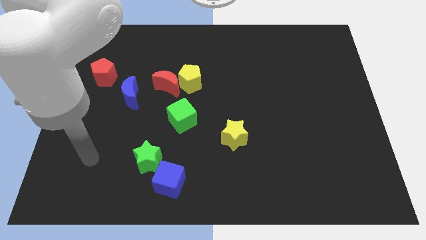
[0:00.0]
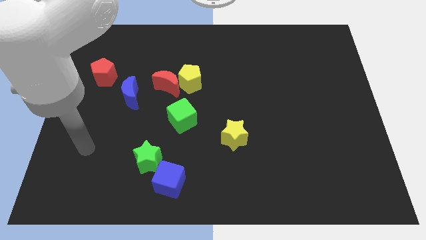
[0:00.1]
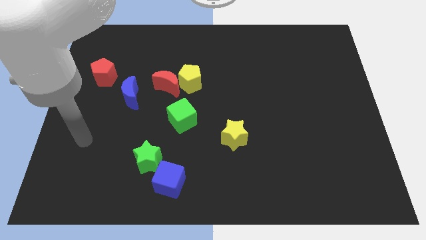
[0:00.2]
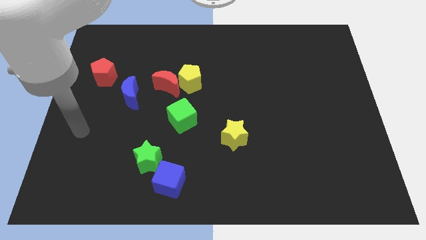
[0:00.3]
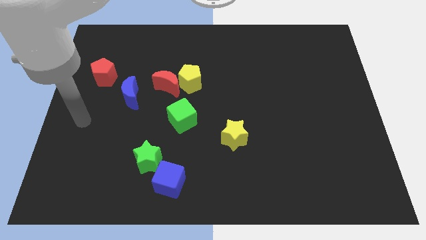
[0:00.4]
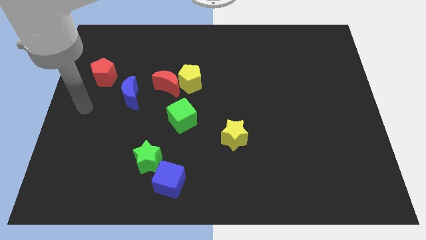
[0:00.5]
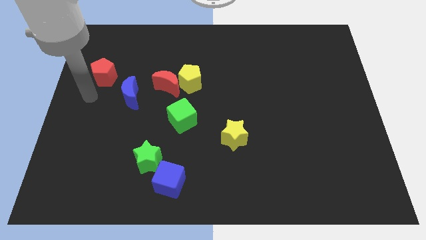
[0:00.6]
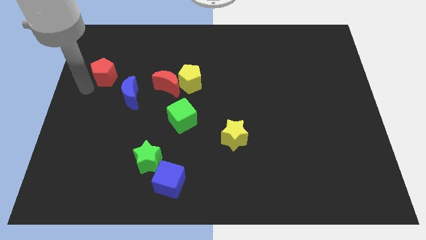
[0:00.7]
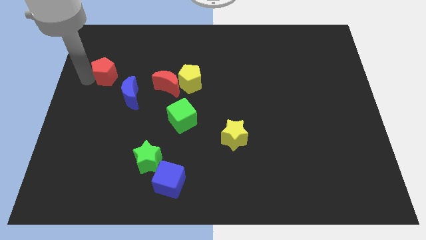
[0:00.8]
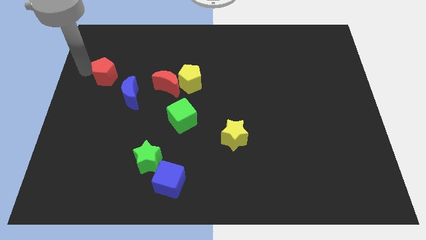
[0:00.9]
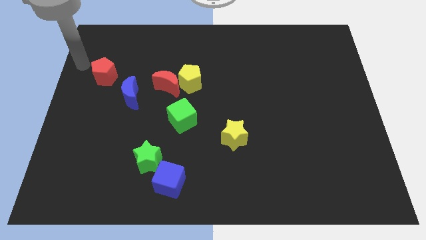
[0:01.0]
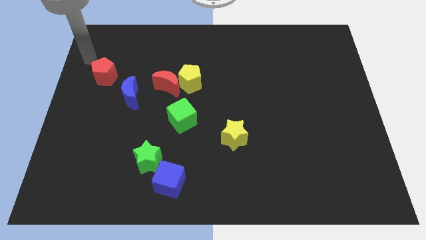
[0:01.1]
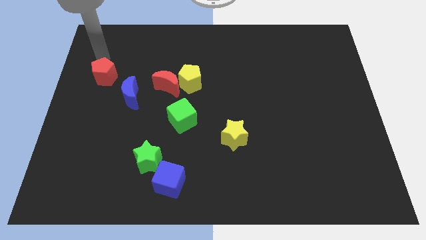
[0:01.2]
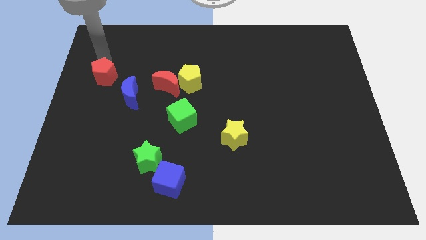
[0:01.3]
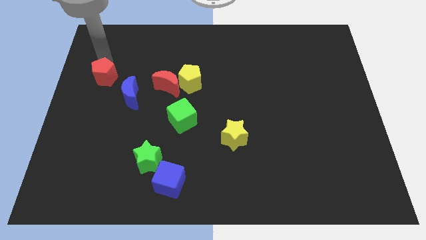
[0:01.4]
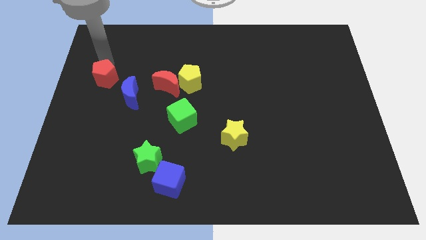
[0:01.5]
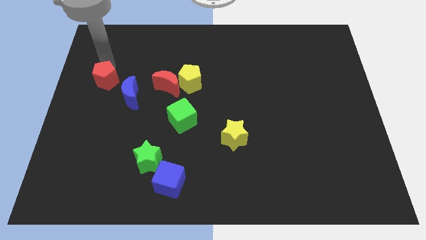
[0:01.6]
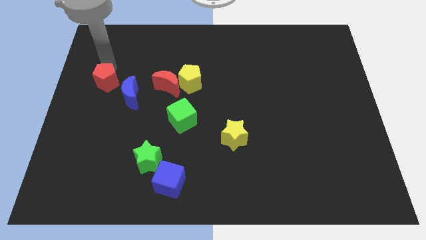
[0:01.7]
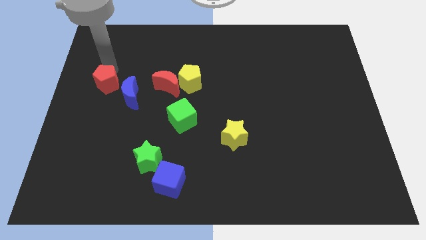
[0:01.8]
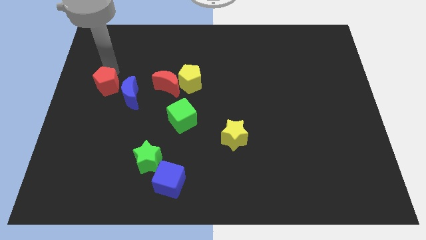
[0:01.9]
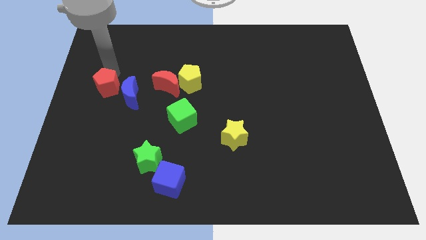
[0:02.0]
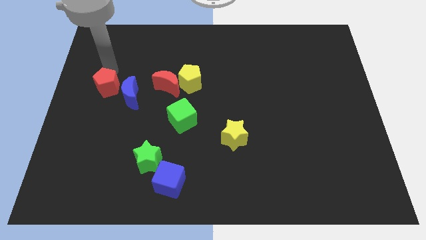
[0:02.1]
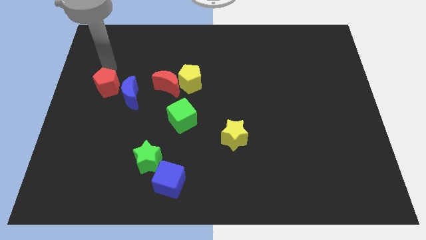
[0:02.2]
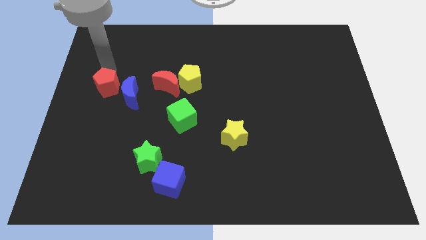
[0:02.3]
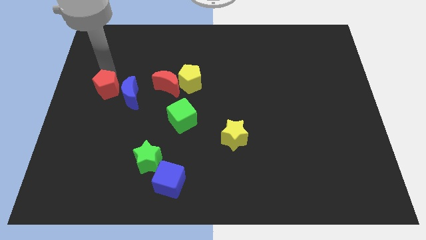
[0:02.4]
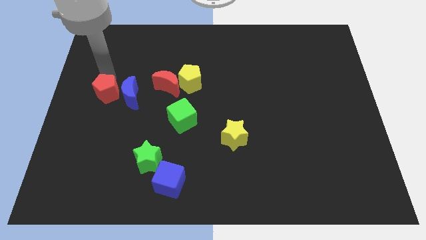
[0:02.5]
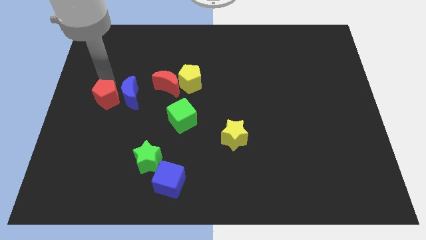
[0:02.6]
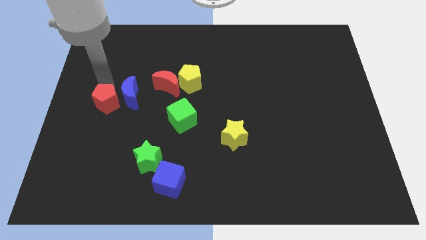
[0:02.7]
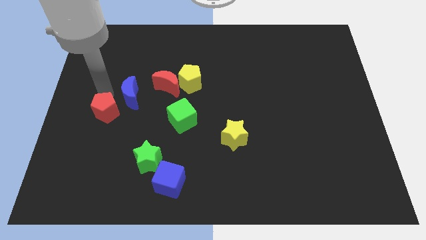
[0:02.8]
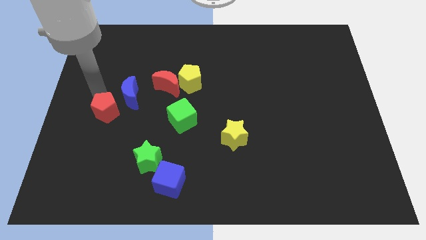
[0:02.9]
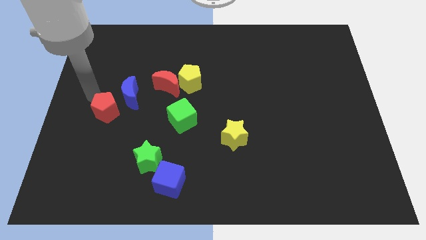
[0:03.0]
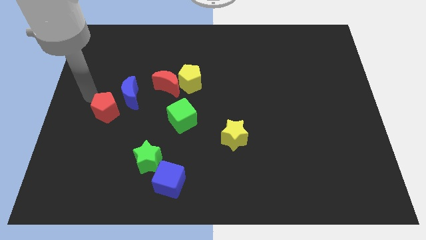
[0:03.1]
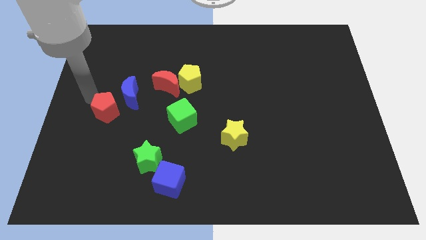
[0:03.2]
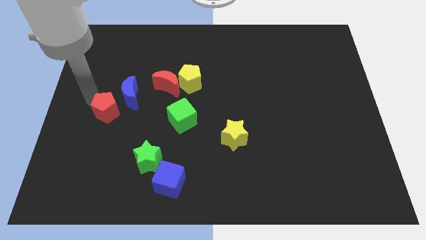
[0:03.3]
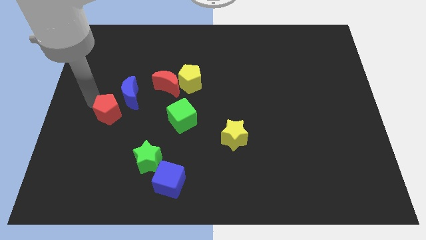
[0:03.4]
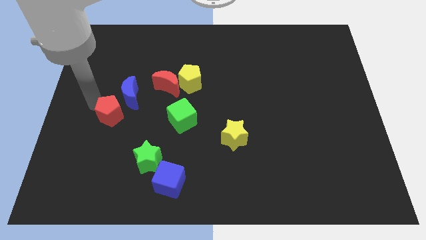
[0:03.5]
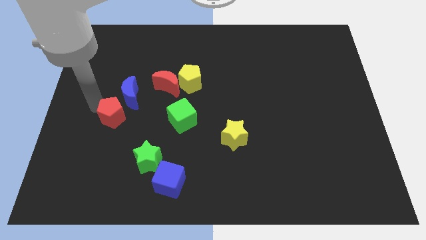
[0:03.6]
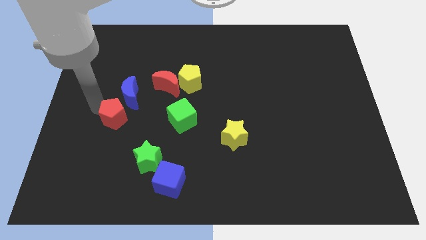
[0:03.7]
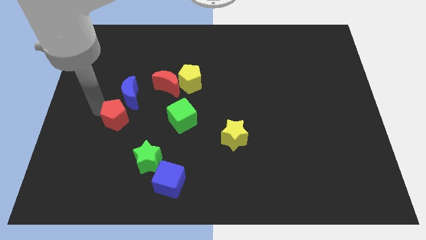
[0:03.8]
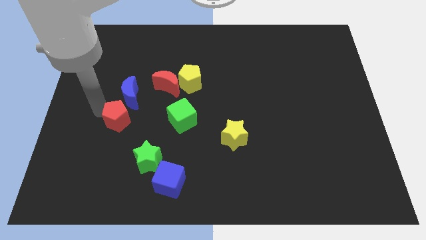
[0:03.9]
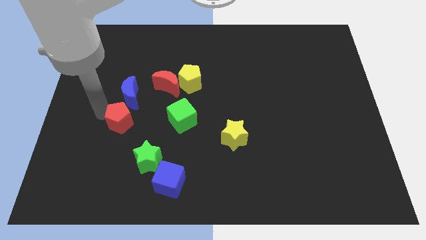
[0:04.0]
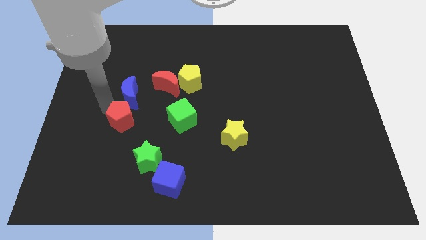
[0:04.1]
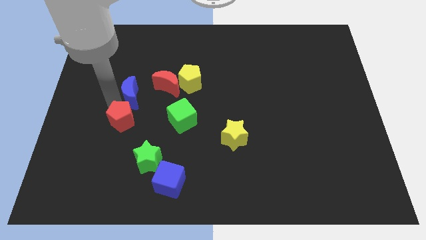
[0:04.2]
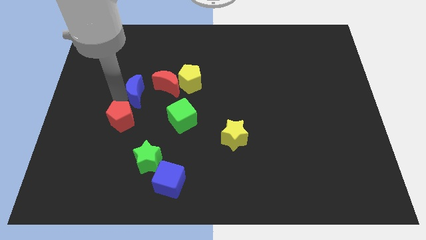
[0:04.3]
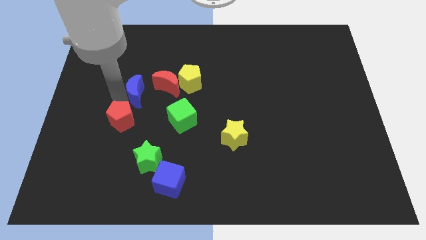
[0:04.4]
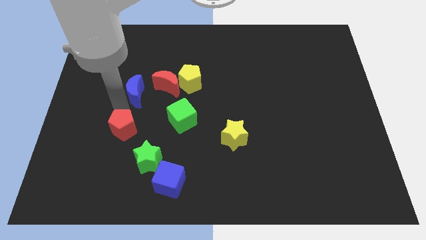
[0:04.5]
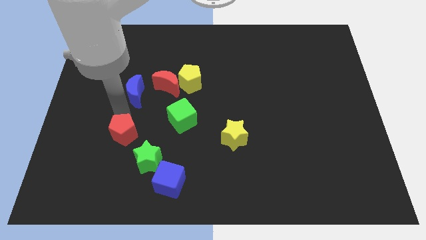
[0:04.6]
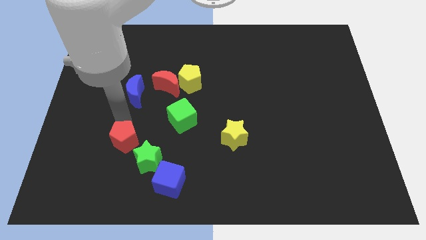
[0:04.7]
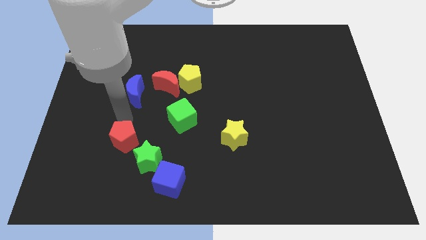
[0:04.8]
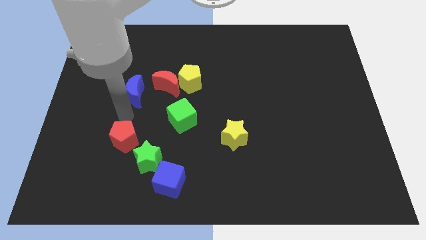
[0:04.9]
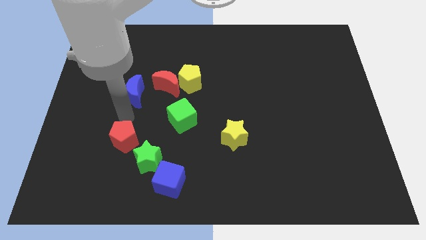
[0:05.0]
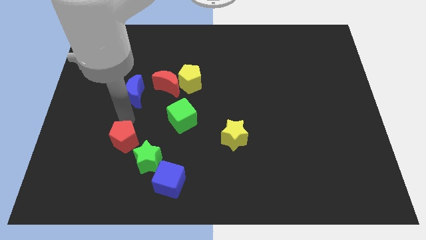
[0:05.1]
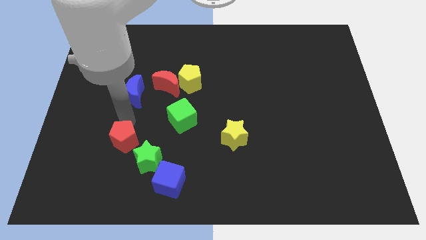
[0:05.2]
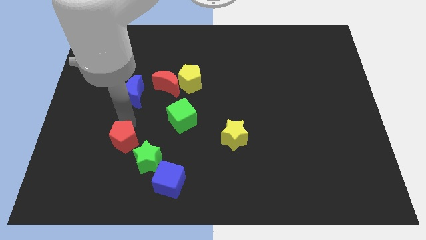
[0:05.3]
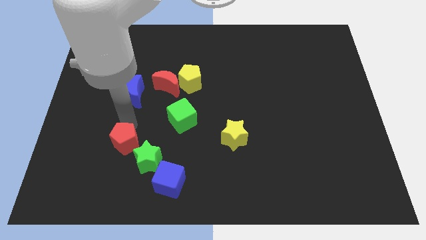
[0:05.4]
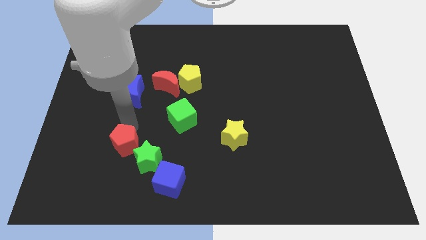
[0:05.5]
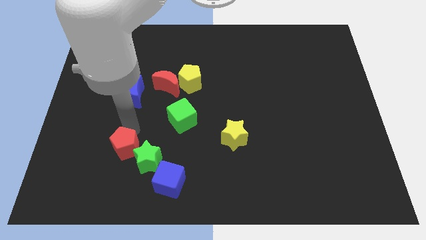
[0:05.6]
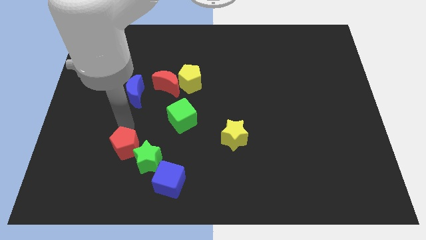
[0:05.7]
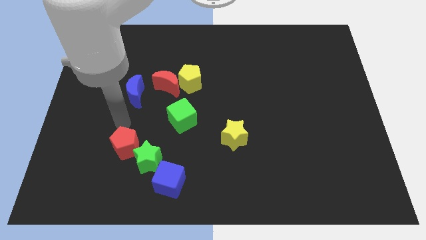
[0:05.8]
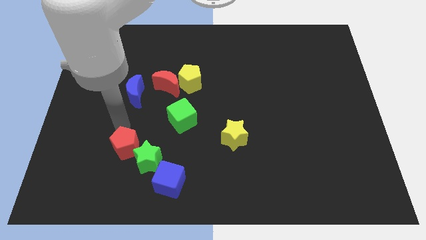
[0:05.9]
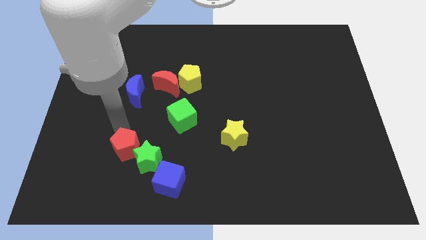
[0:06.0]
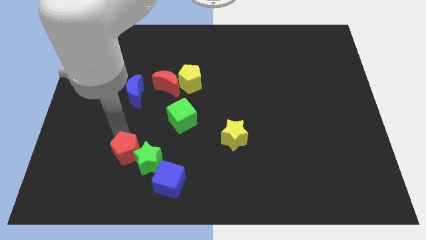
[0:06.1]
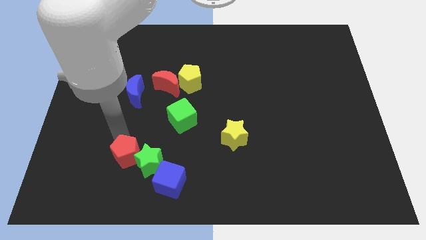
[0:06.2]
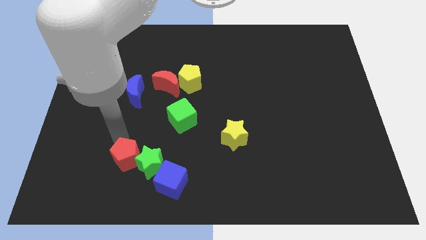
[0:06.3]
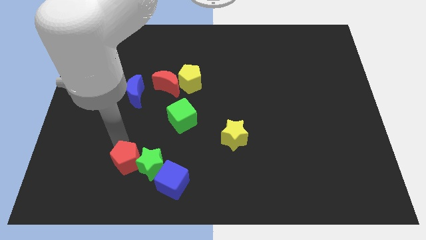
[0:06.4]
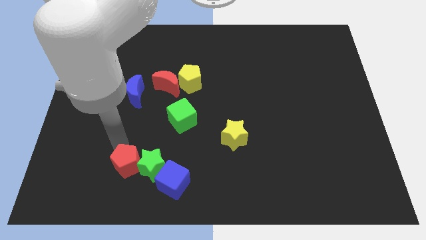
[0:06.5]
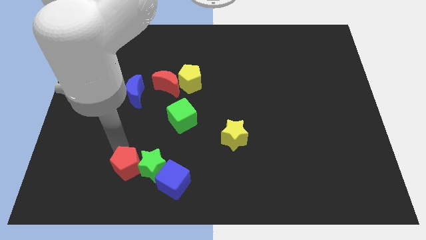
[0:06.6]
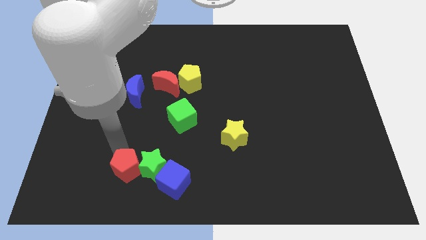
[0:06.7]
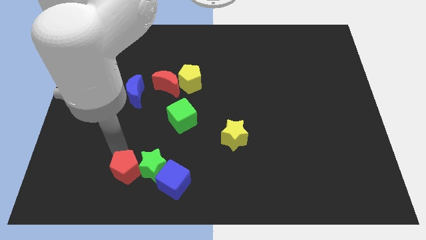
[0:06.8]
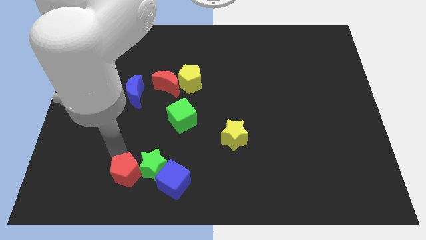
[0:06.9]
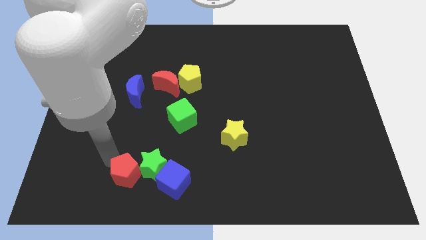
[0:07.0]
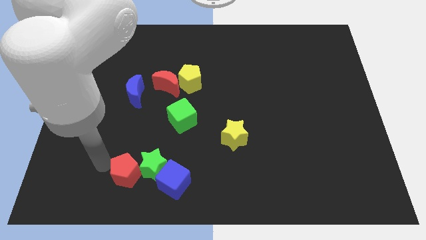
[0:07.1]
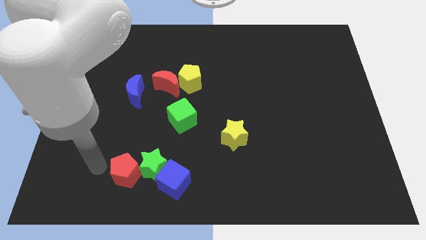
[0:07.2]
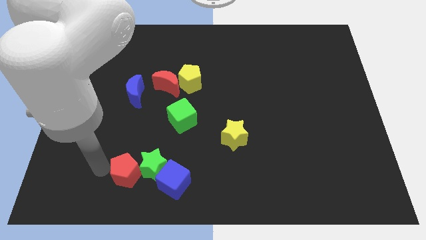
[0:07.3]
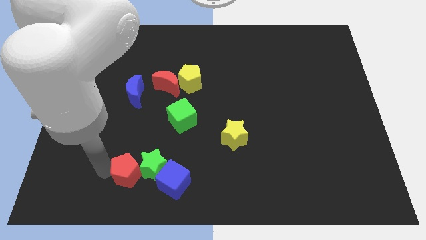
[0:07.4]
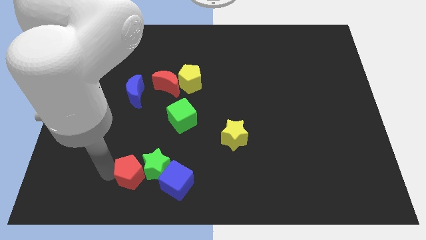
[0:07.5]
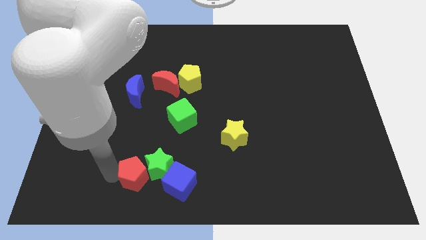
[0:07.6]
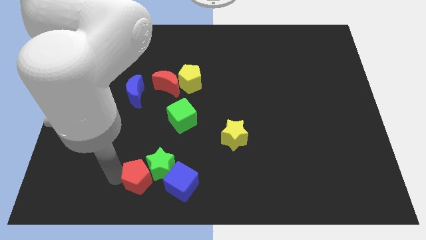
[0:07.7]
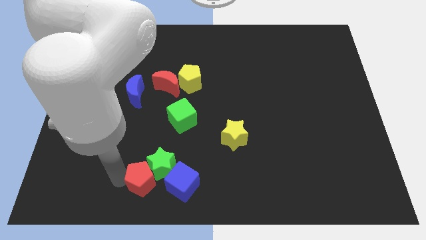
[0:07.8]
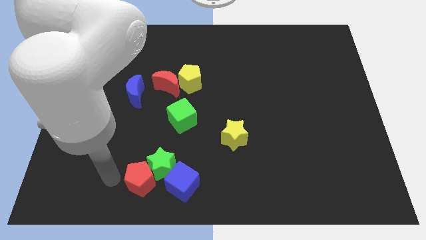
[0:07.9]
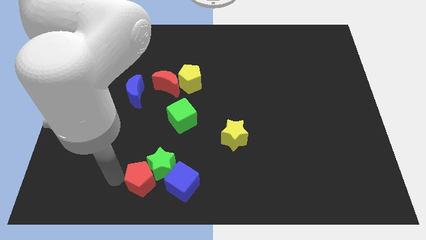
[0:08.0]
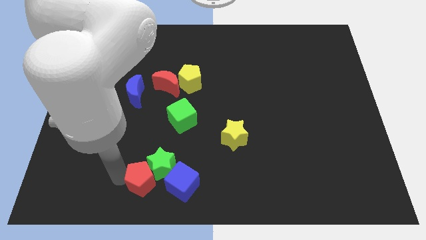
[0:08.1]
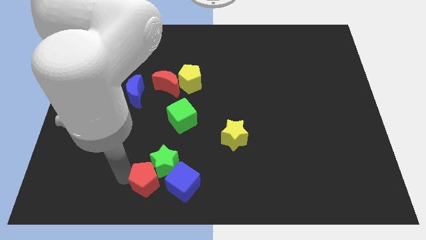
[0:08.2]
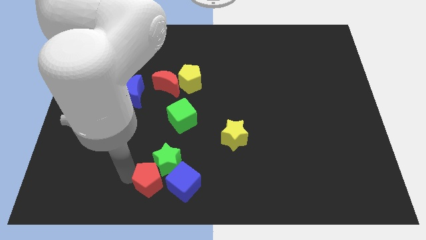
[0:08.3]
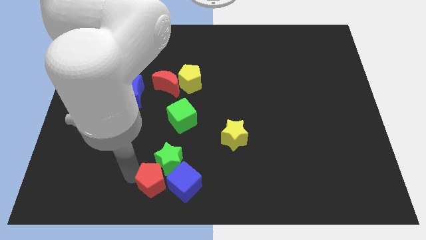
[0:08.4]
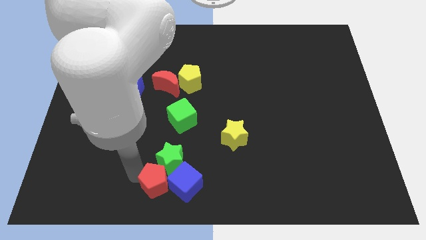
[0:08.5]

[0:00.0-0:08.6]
move the red pentagon next to the blue cube
